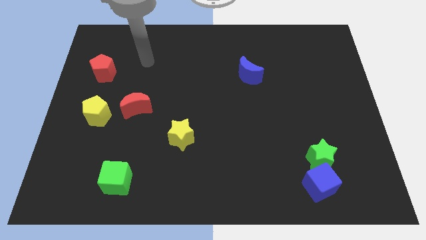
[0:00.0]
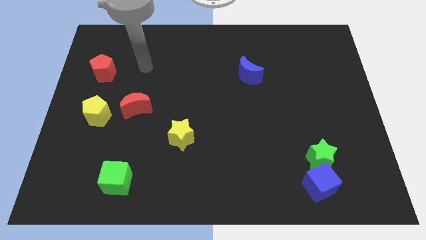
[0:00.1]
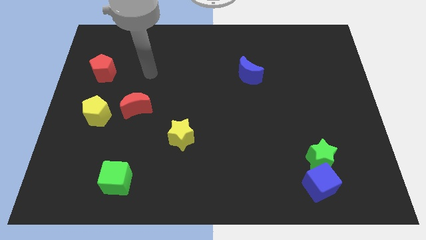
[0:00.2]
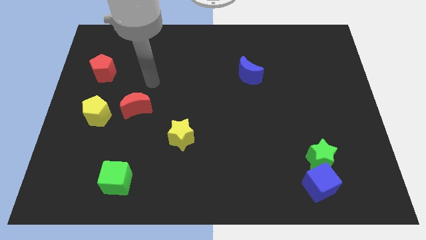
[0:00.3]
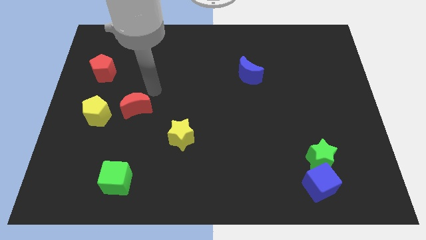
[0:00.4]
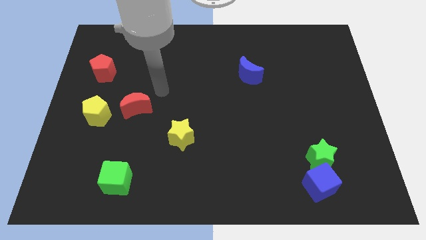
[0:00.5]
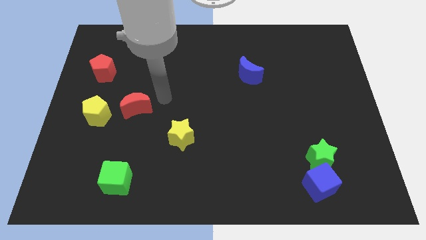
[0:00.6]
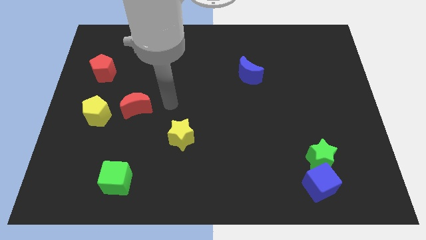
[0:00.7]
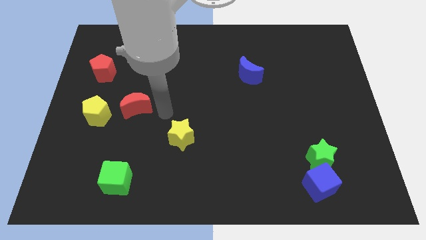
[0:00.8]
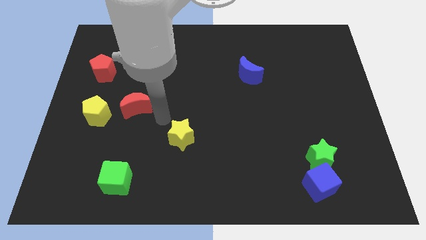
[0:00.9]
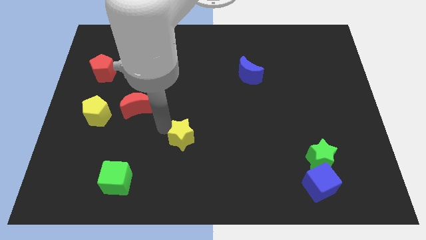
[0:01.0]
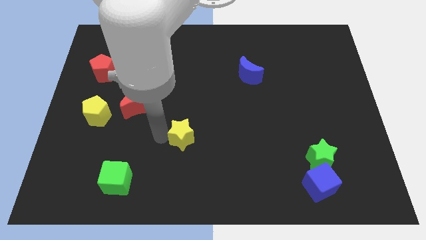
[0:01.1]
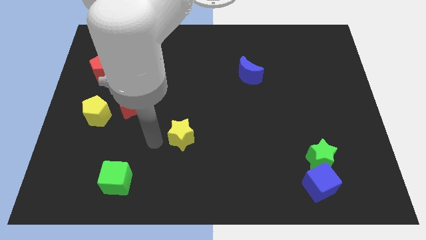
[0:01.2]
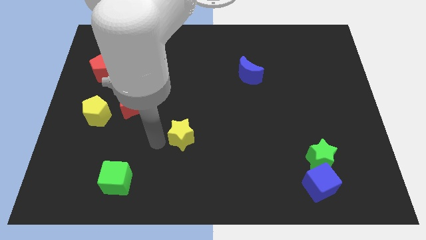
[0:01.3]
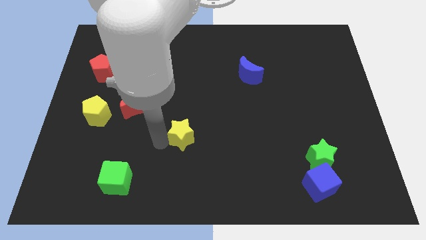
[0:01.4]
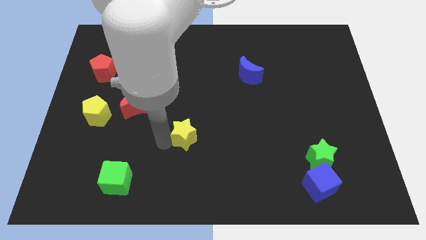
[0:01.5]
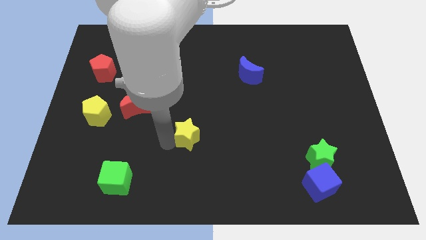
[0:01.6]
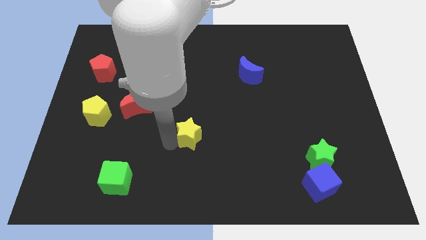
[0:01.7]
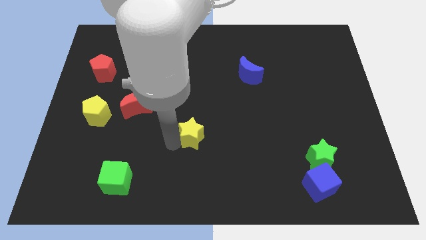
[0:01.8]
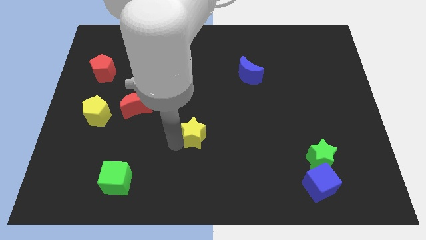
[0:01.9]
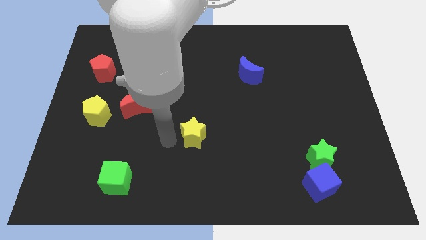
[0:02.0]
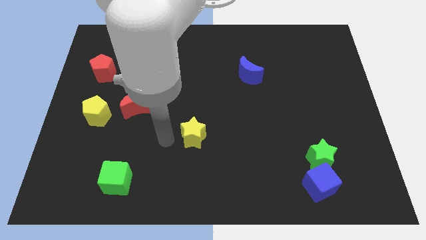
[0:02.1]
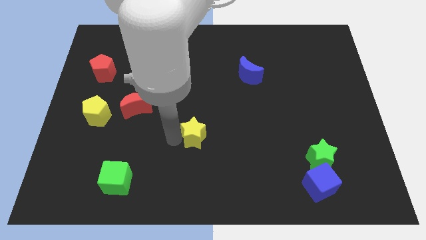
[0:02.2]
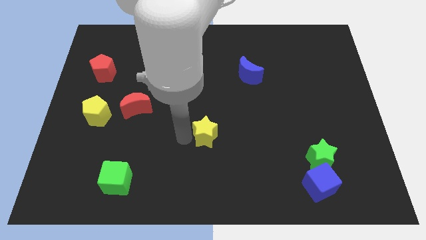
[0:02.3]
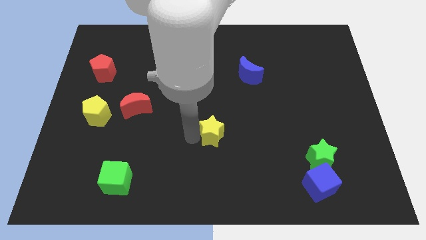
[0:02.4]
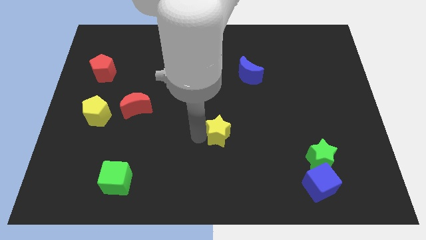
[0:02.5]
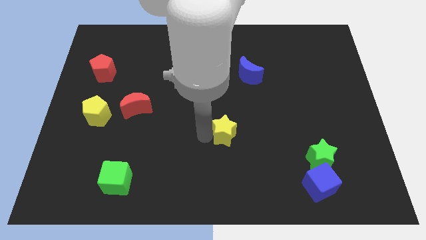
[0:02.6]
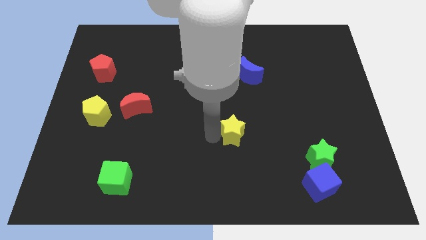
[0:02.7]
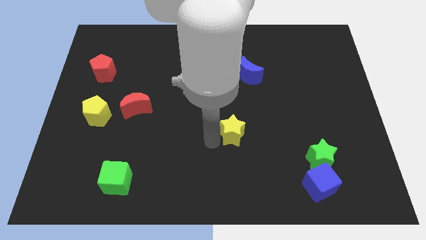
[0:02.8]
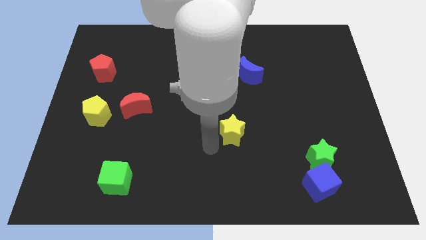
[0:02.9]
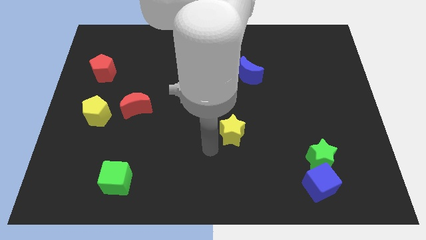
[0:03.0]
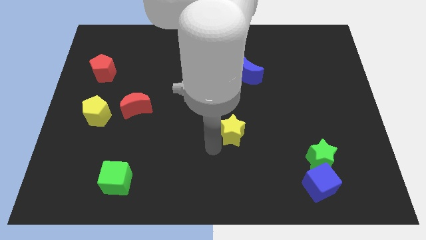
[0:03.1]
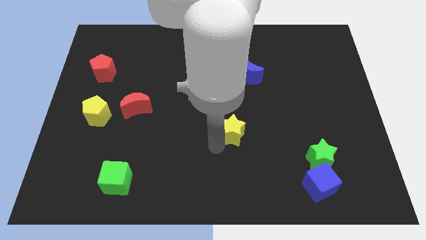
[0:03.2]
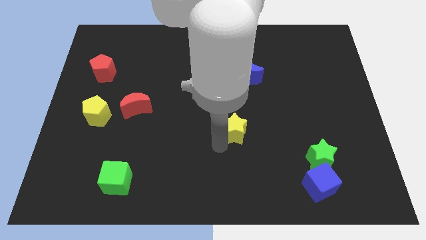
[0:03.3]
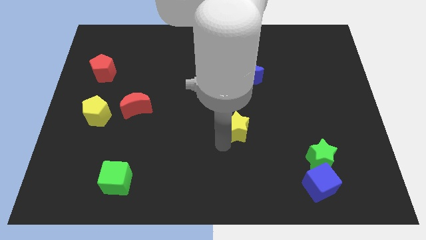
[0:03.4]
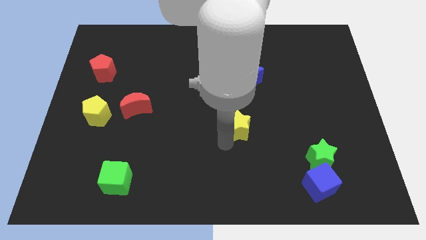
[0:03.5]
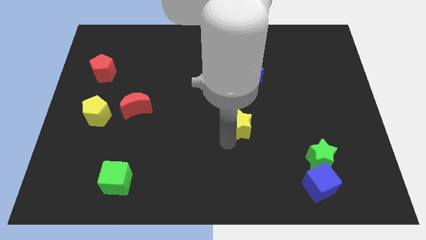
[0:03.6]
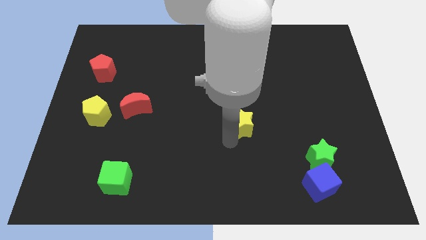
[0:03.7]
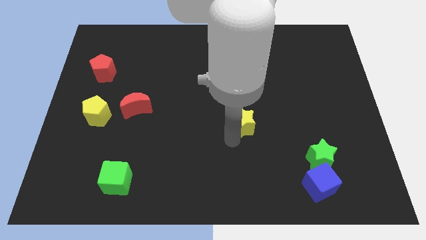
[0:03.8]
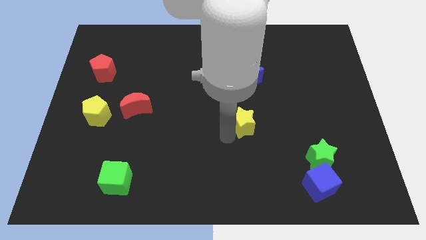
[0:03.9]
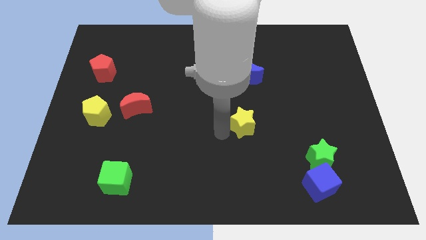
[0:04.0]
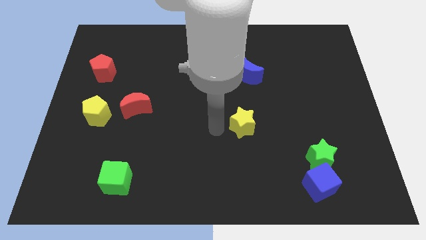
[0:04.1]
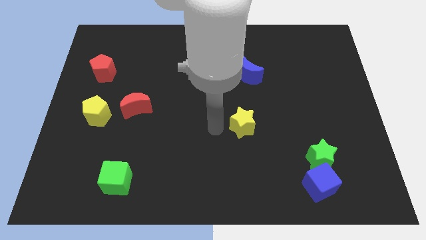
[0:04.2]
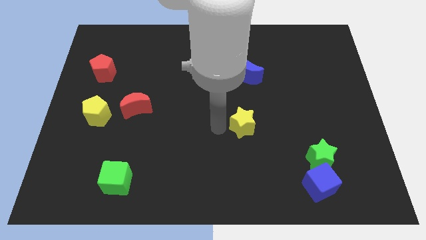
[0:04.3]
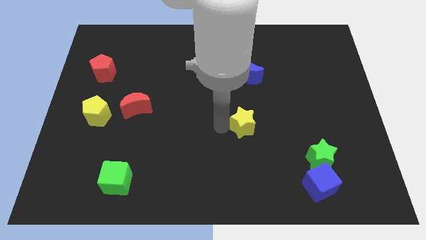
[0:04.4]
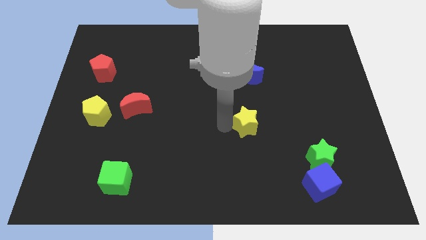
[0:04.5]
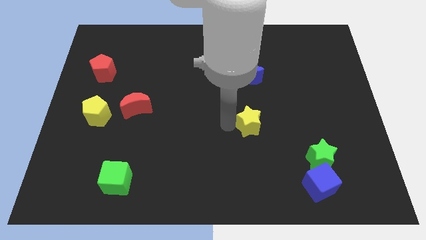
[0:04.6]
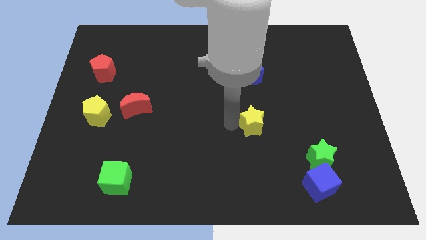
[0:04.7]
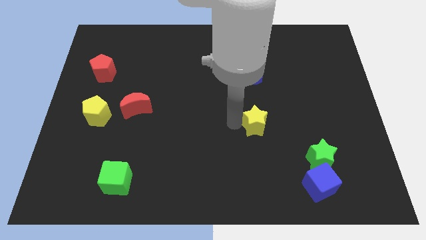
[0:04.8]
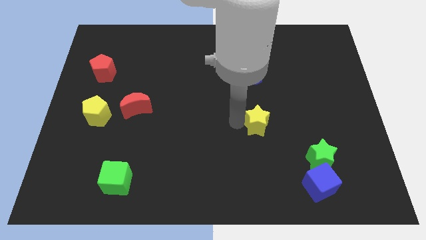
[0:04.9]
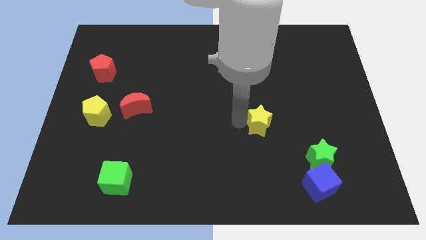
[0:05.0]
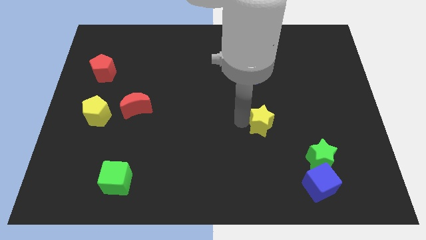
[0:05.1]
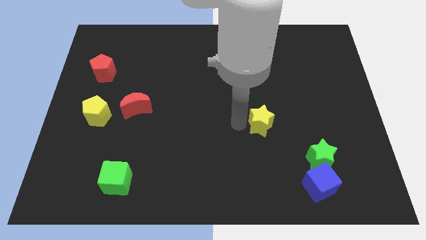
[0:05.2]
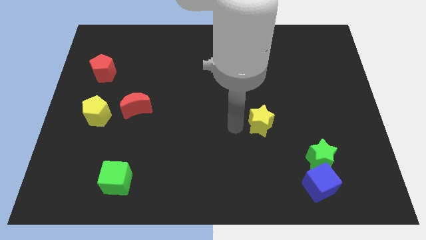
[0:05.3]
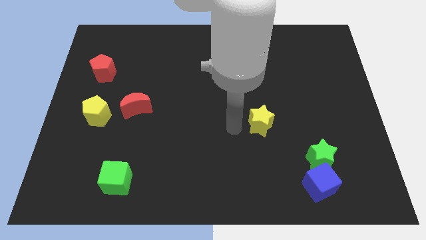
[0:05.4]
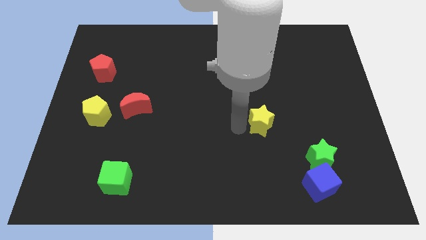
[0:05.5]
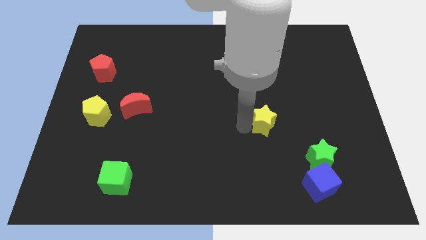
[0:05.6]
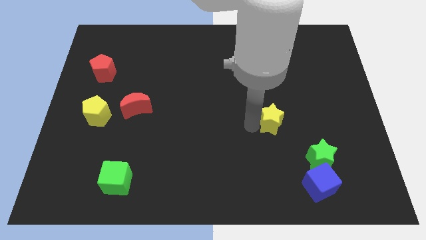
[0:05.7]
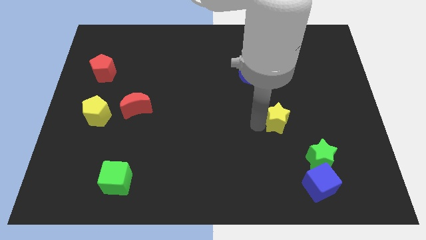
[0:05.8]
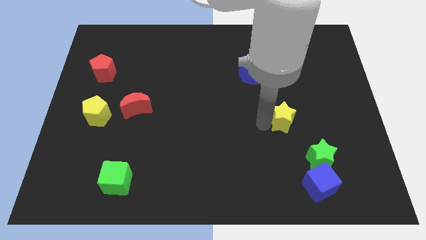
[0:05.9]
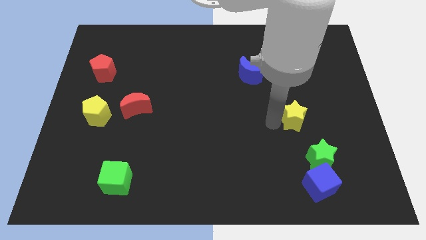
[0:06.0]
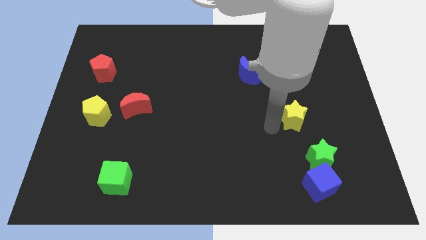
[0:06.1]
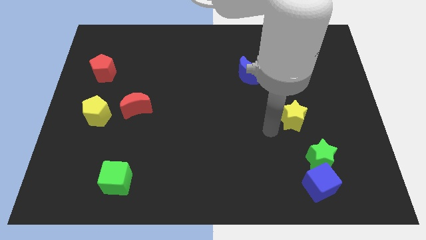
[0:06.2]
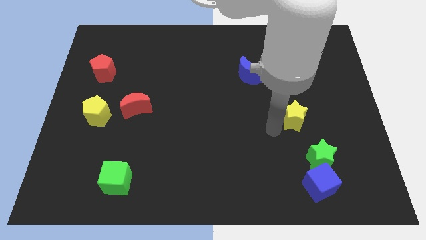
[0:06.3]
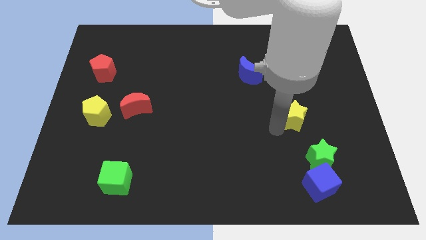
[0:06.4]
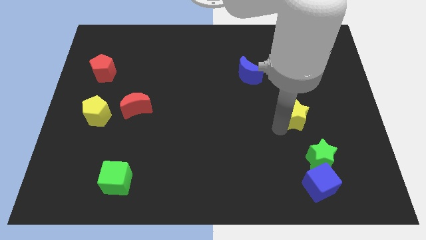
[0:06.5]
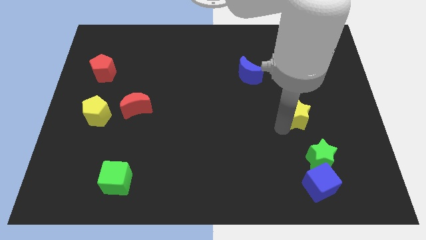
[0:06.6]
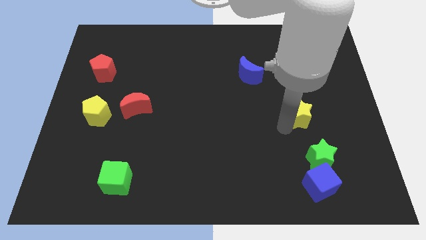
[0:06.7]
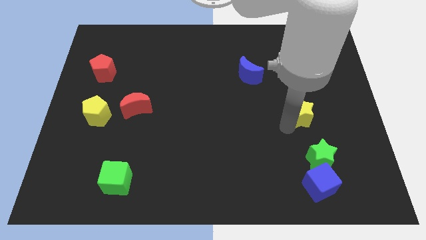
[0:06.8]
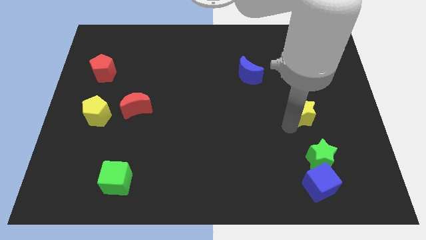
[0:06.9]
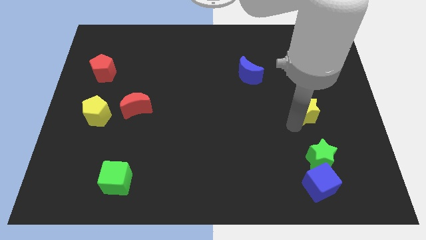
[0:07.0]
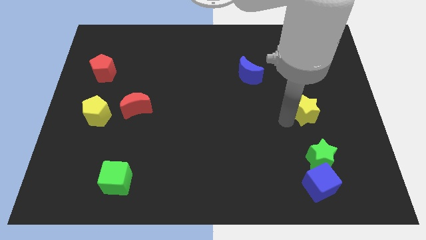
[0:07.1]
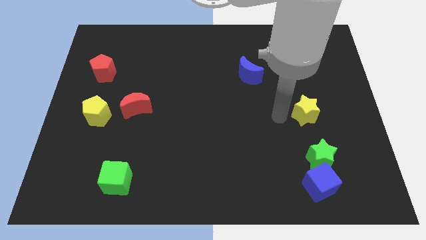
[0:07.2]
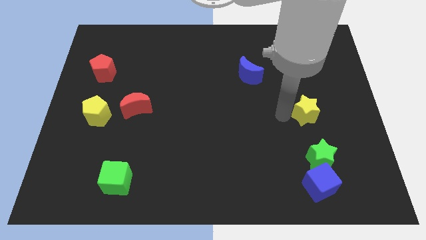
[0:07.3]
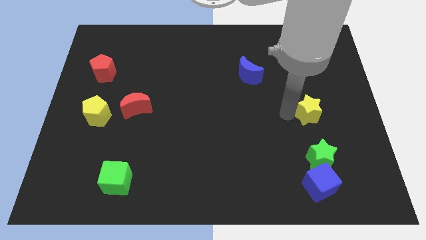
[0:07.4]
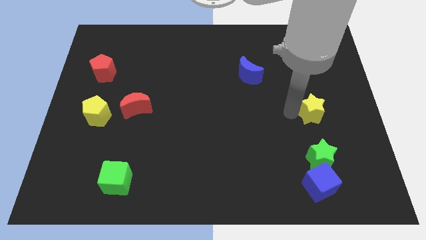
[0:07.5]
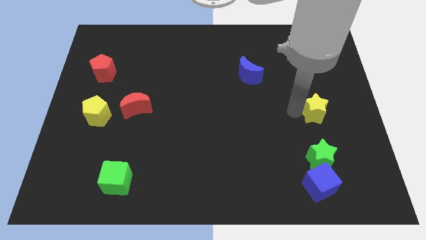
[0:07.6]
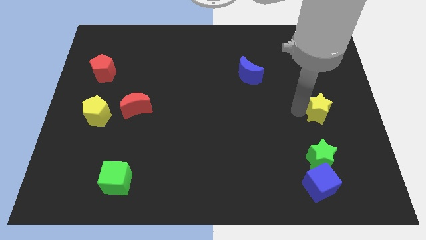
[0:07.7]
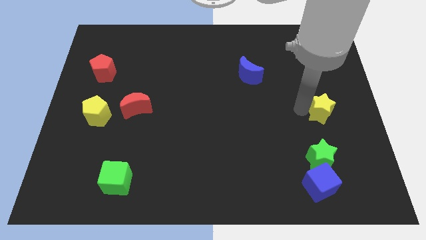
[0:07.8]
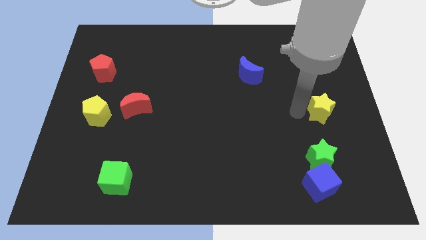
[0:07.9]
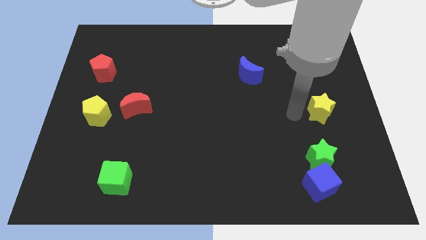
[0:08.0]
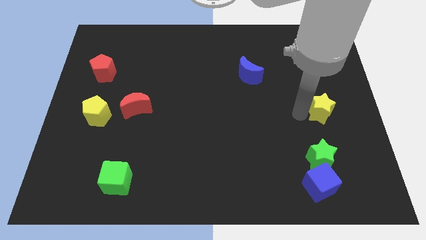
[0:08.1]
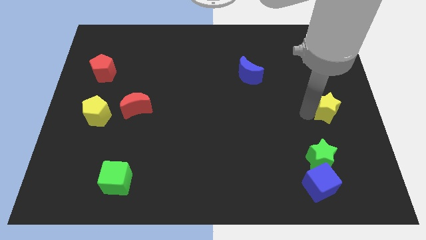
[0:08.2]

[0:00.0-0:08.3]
push the yellow star to the center right
